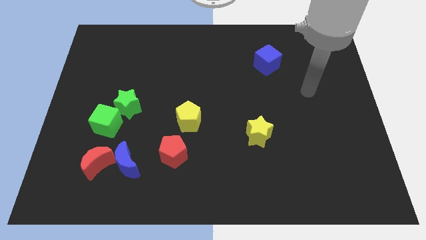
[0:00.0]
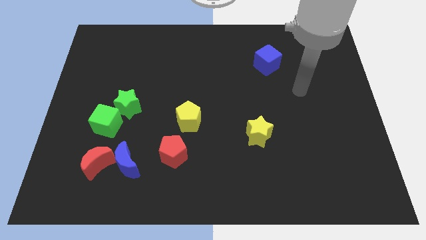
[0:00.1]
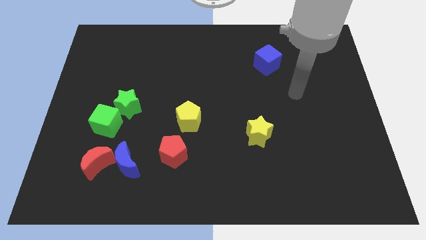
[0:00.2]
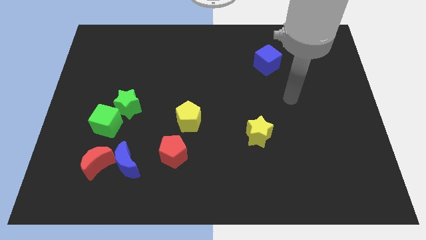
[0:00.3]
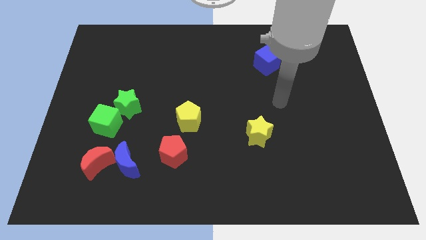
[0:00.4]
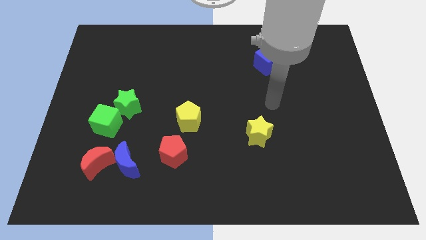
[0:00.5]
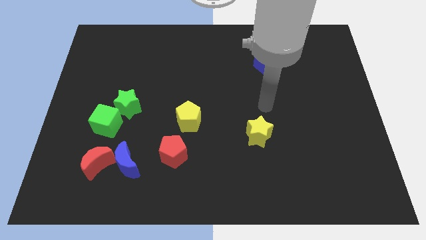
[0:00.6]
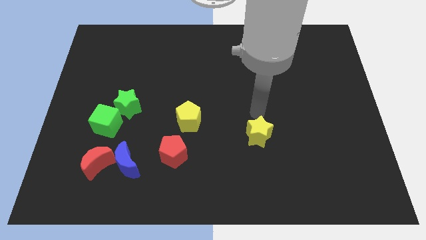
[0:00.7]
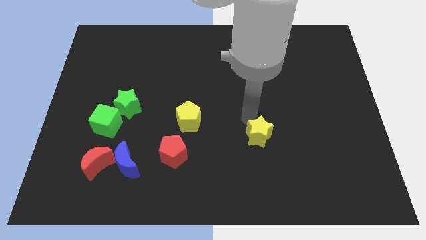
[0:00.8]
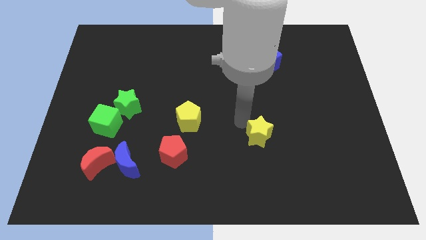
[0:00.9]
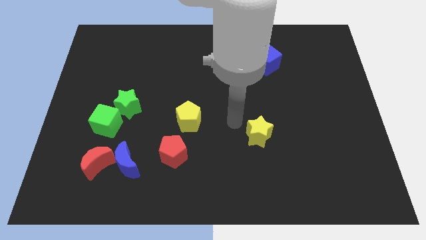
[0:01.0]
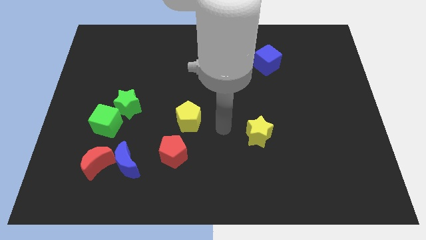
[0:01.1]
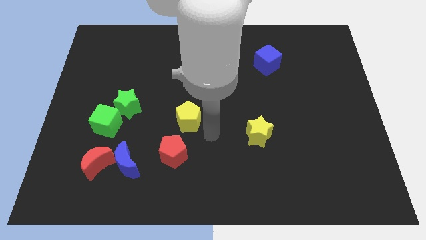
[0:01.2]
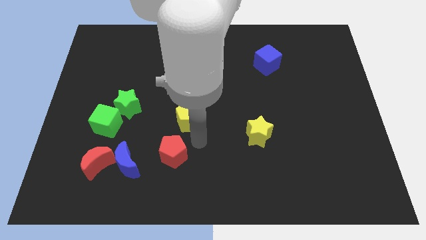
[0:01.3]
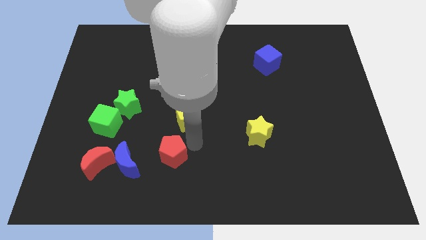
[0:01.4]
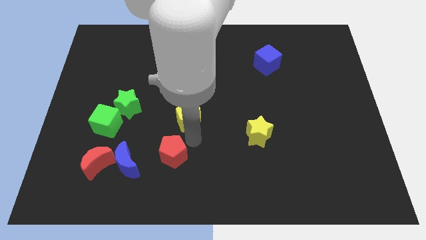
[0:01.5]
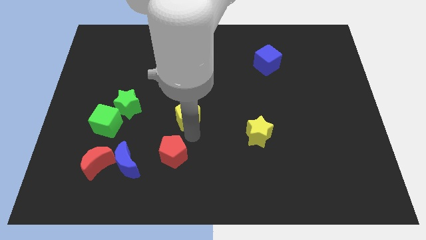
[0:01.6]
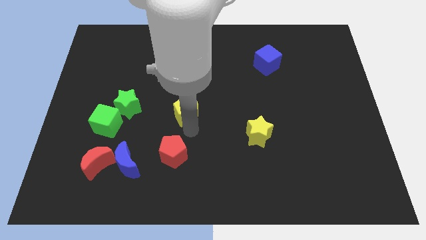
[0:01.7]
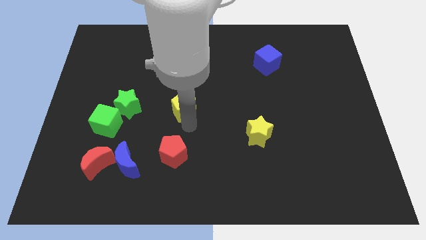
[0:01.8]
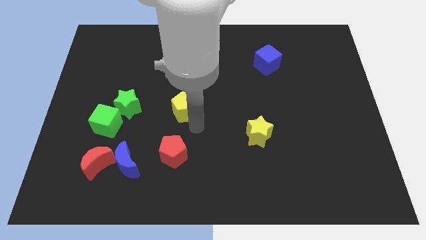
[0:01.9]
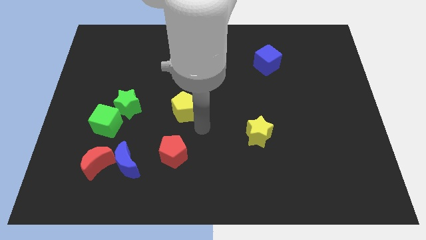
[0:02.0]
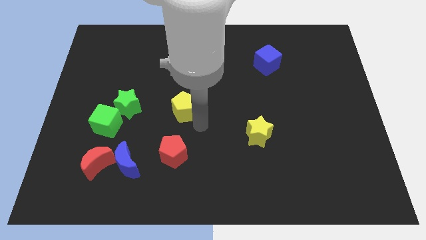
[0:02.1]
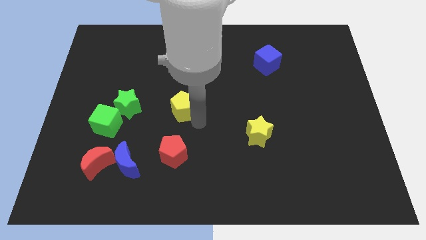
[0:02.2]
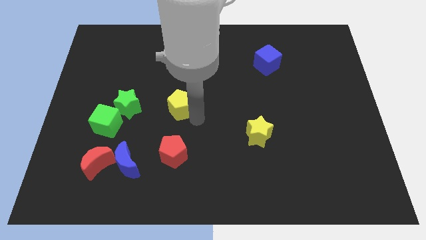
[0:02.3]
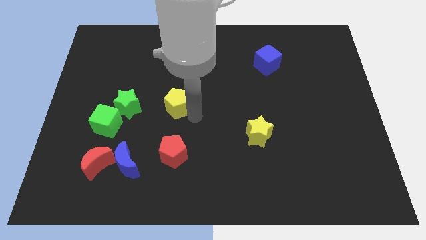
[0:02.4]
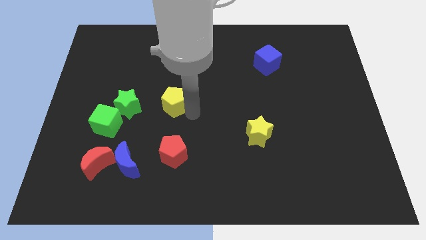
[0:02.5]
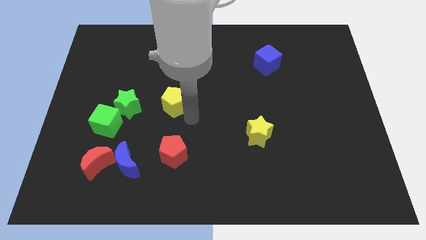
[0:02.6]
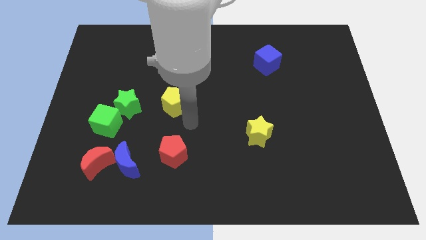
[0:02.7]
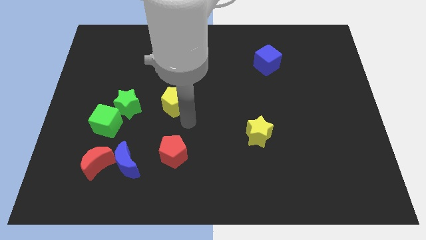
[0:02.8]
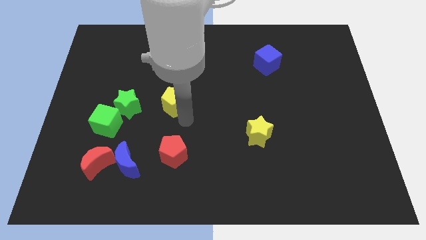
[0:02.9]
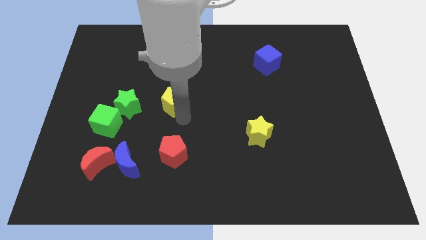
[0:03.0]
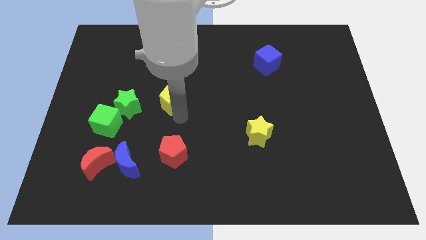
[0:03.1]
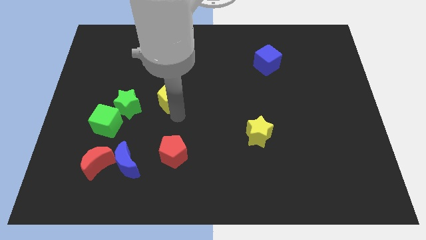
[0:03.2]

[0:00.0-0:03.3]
move the yellow pentagon diagonally up and to the left slightly

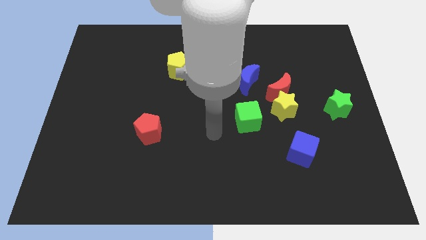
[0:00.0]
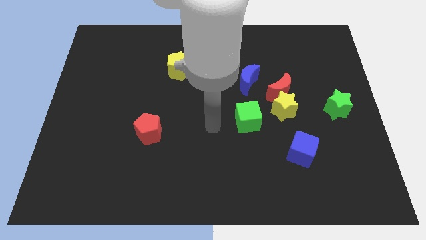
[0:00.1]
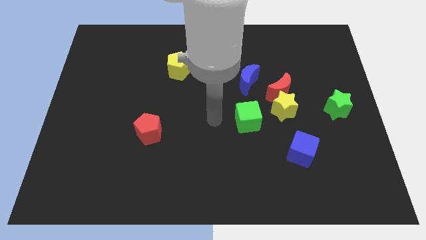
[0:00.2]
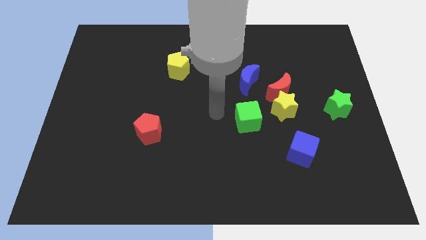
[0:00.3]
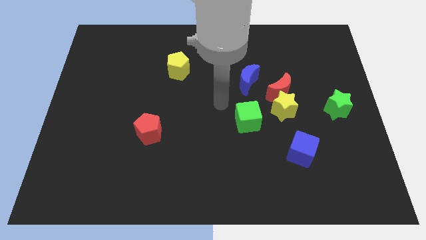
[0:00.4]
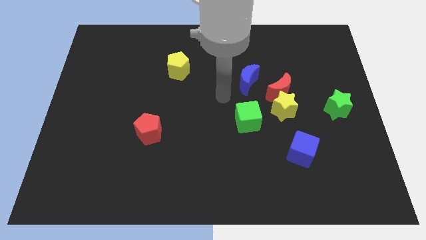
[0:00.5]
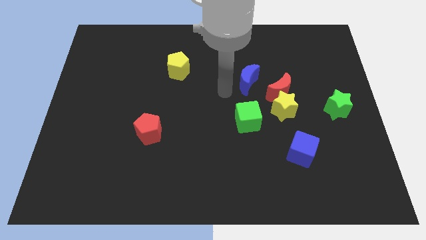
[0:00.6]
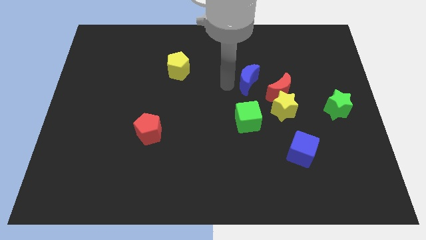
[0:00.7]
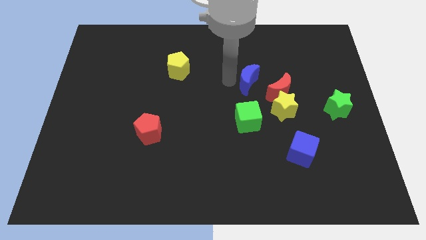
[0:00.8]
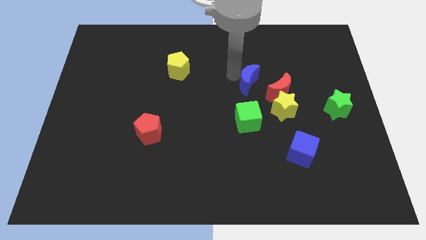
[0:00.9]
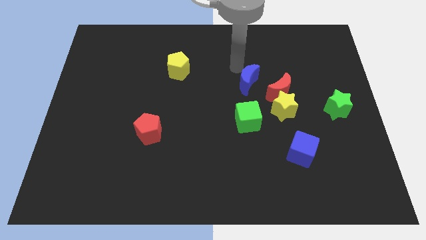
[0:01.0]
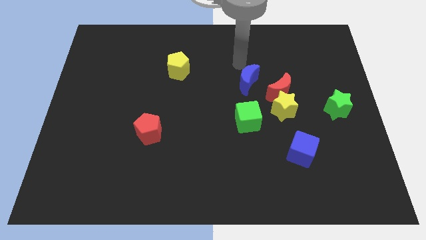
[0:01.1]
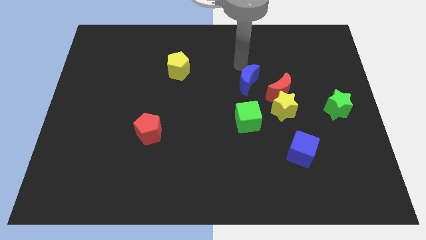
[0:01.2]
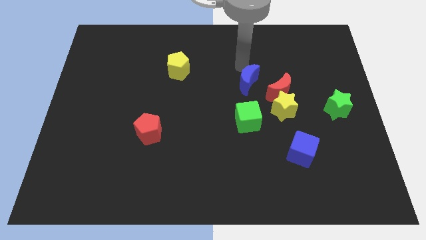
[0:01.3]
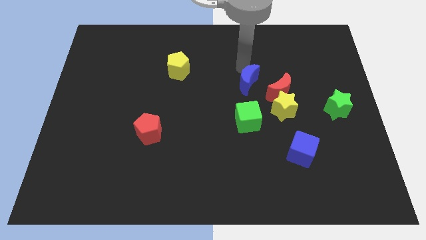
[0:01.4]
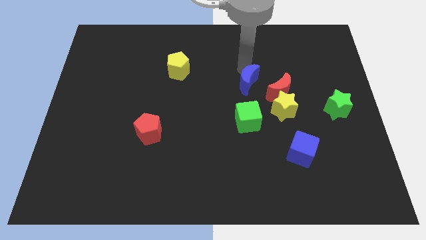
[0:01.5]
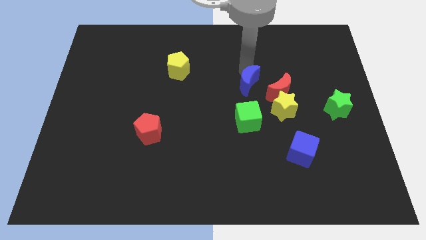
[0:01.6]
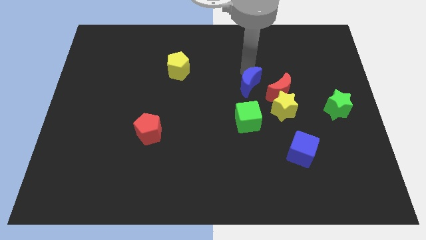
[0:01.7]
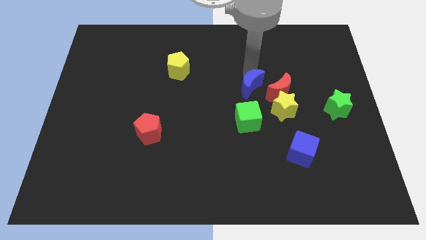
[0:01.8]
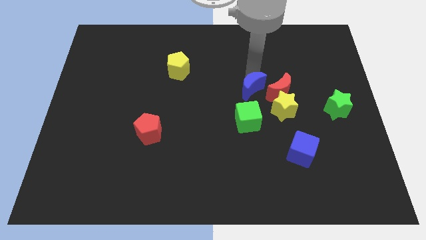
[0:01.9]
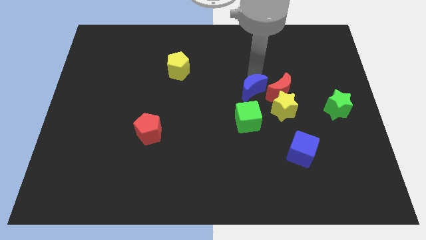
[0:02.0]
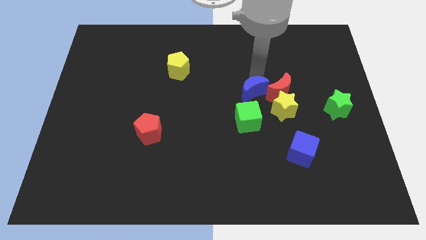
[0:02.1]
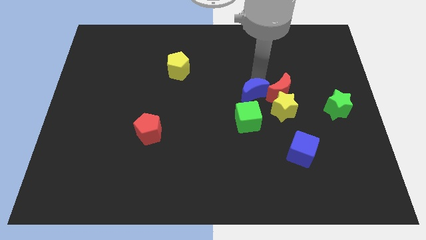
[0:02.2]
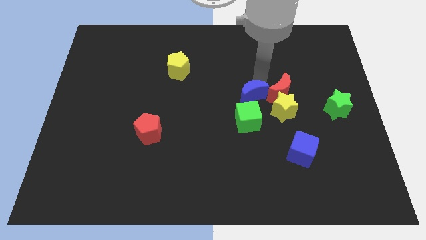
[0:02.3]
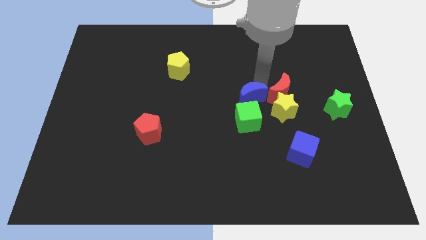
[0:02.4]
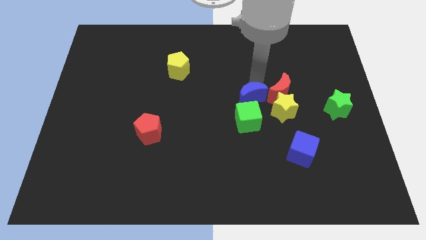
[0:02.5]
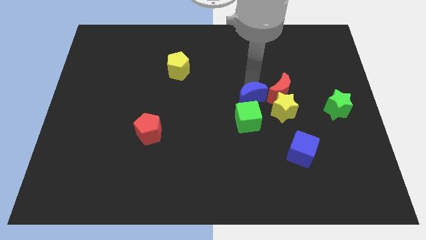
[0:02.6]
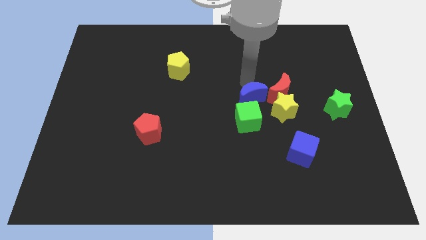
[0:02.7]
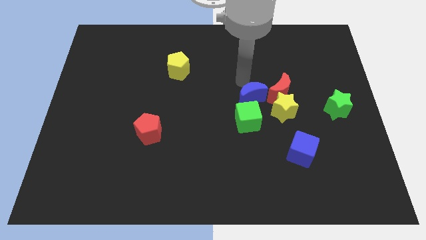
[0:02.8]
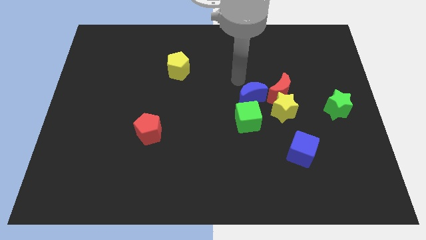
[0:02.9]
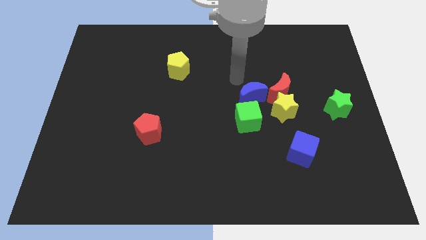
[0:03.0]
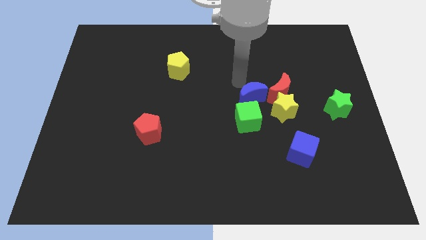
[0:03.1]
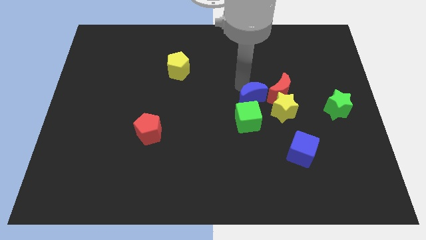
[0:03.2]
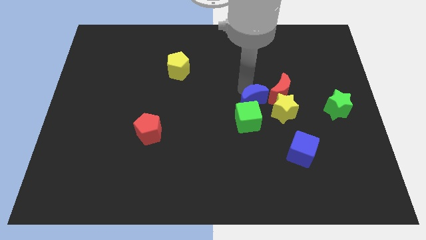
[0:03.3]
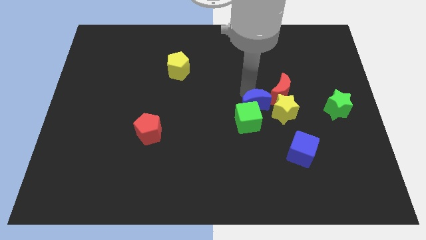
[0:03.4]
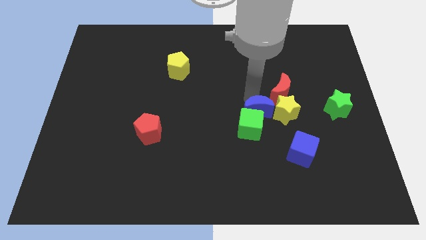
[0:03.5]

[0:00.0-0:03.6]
slightly push the blue moon diagonally down and to the right

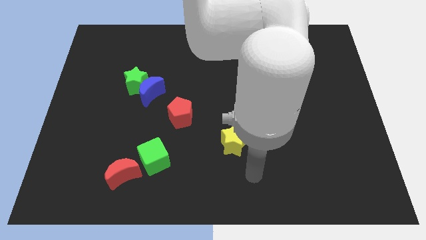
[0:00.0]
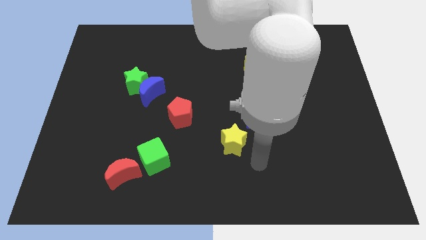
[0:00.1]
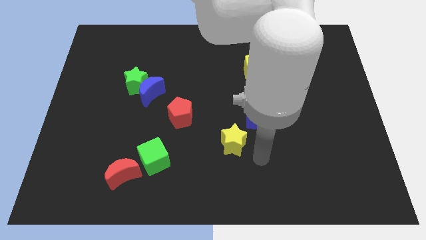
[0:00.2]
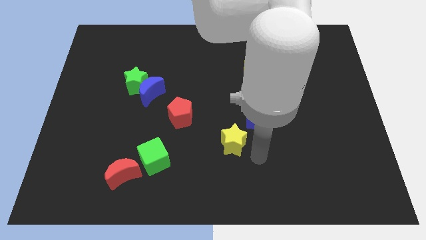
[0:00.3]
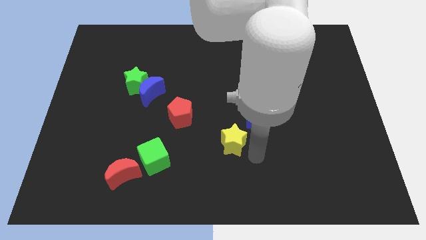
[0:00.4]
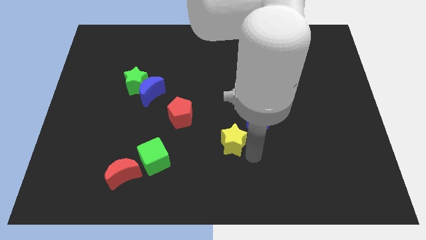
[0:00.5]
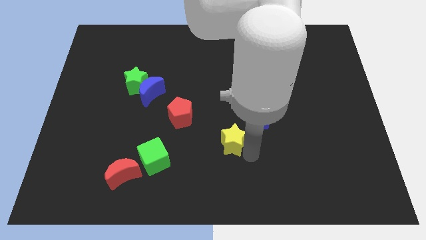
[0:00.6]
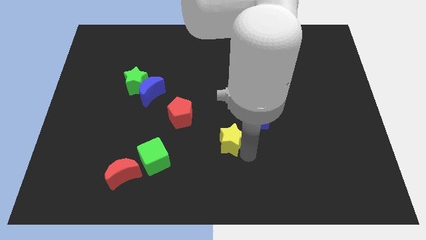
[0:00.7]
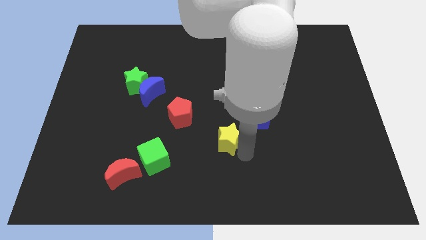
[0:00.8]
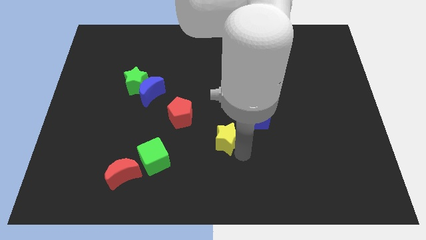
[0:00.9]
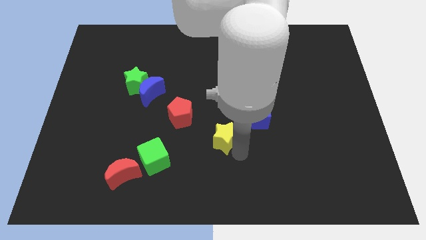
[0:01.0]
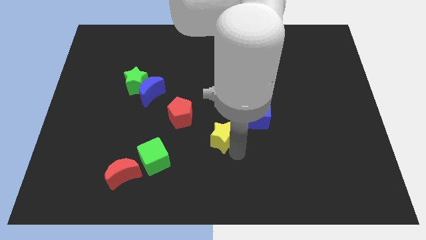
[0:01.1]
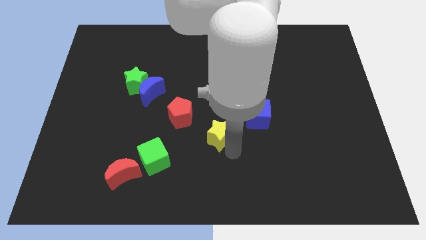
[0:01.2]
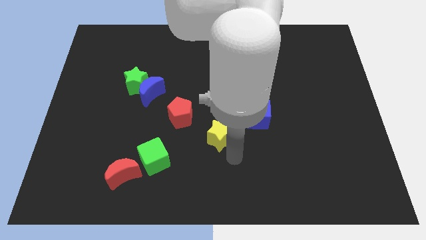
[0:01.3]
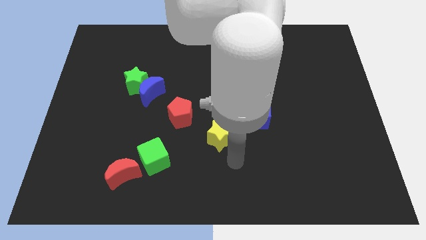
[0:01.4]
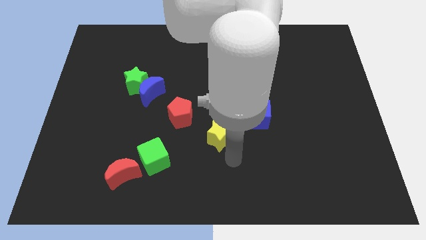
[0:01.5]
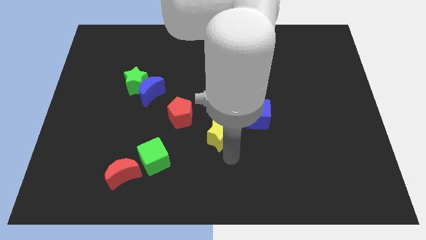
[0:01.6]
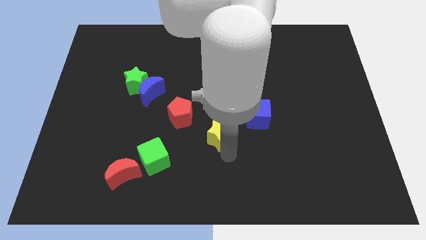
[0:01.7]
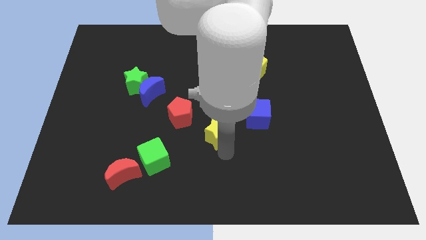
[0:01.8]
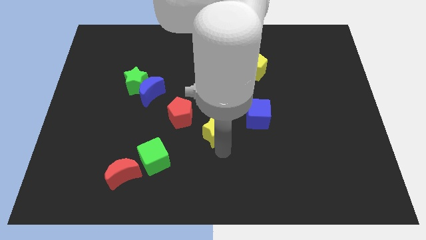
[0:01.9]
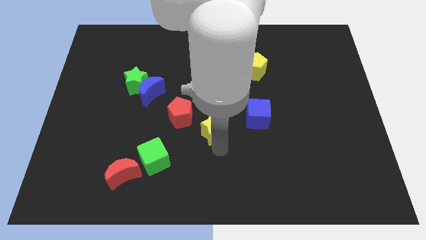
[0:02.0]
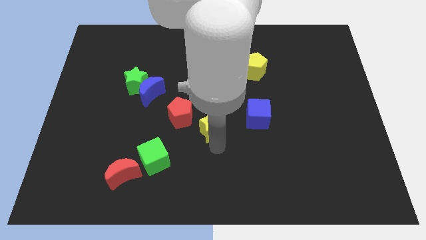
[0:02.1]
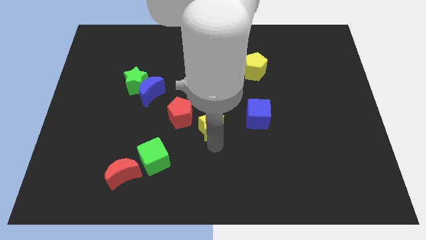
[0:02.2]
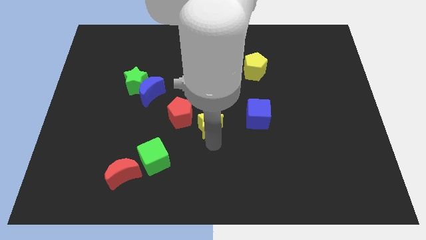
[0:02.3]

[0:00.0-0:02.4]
move the yellow star diagonally upwards and left slightly
